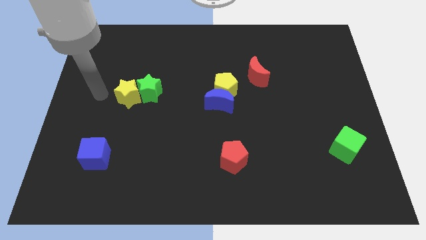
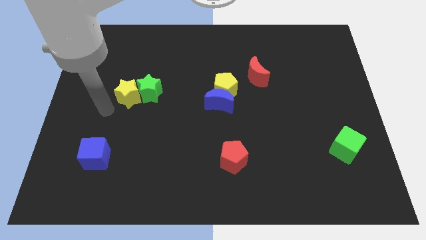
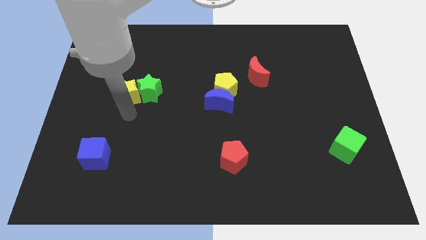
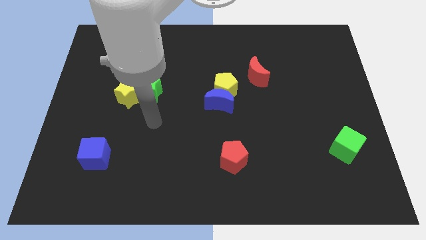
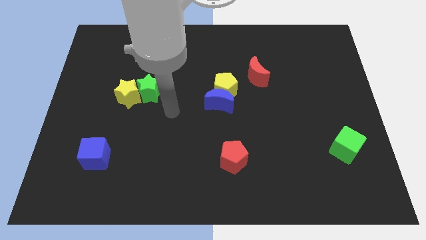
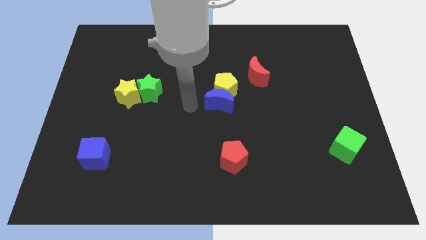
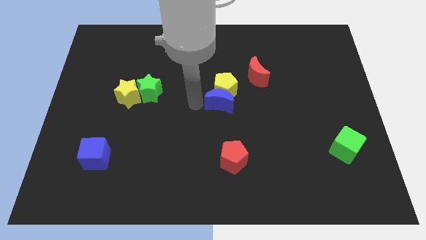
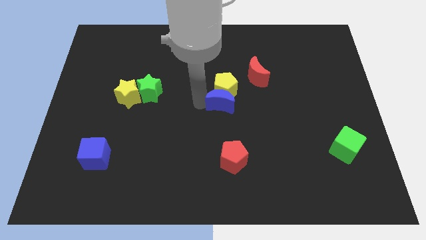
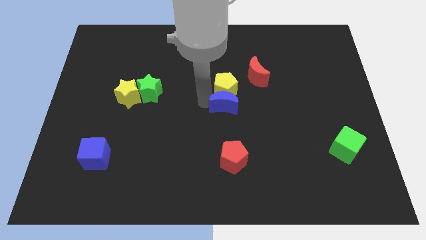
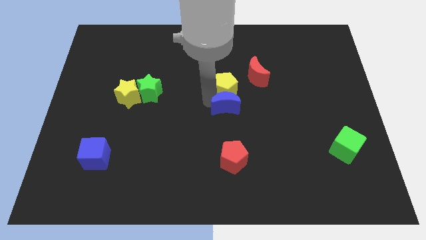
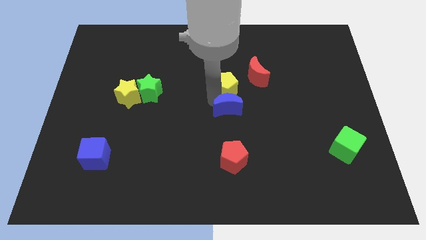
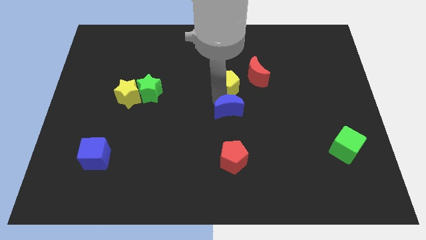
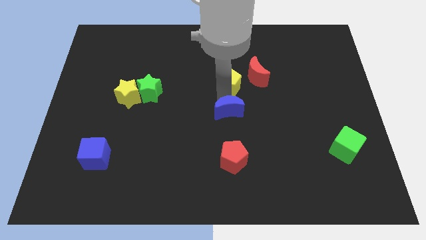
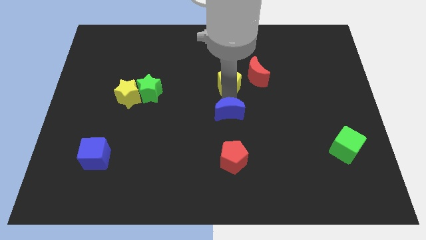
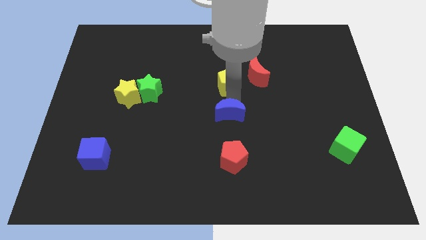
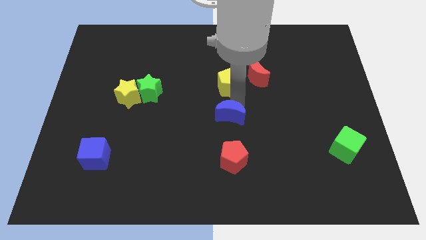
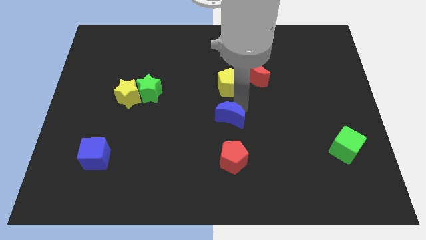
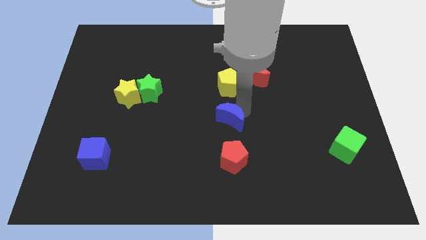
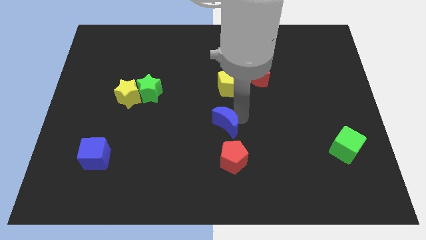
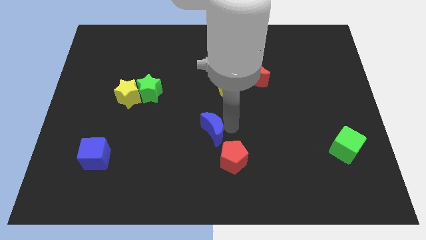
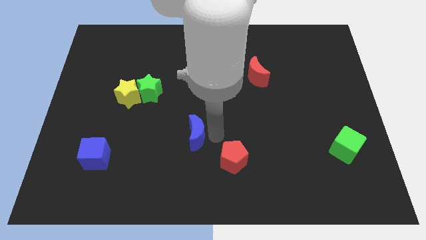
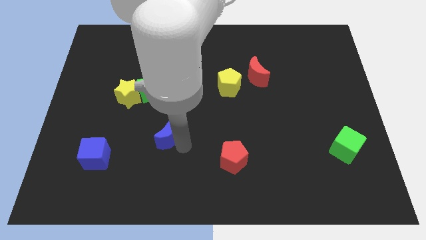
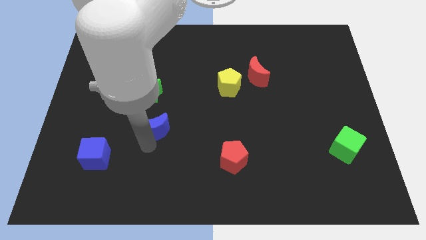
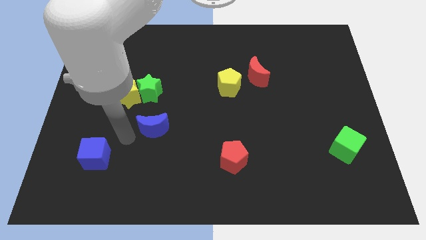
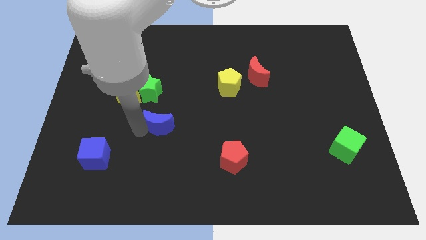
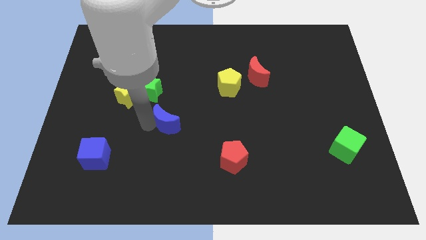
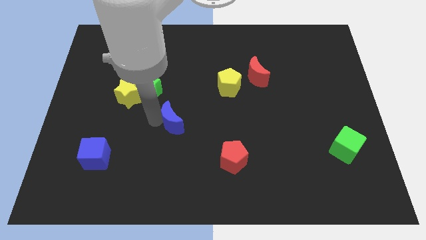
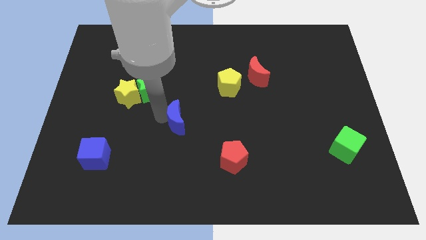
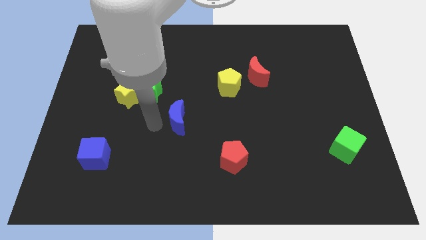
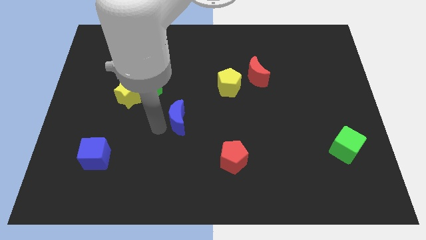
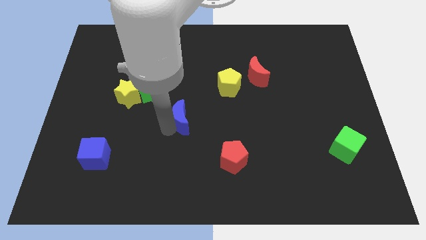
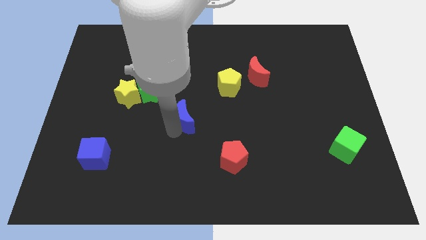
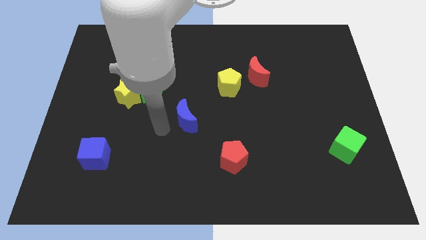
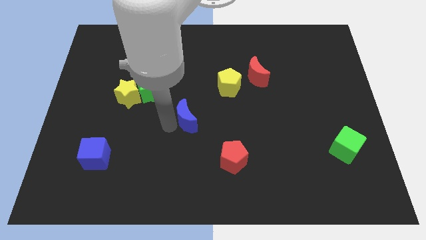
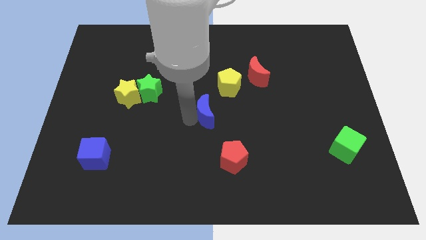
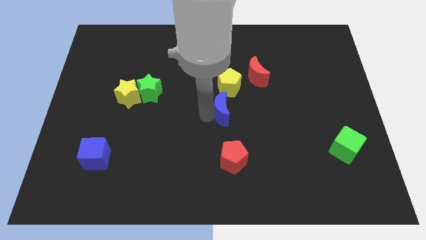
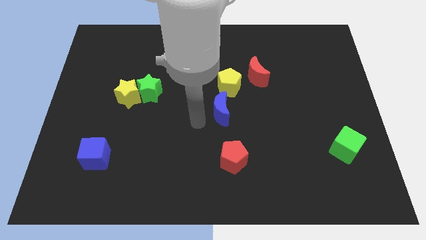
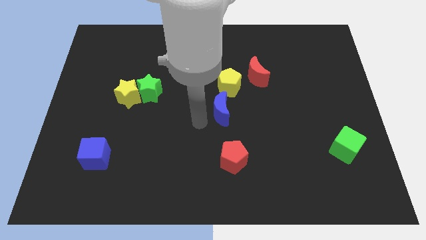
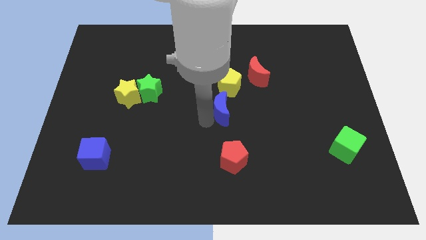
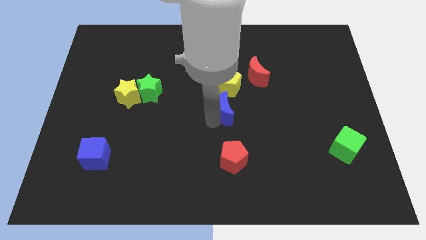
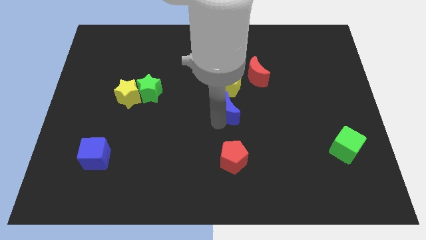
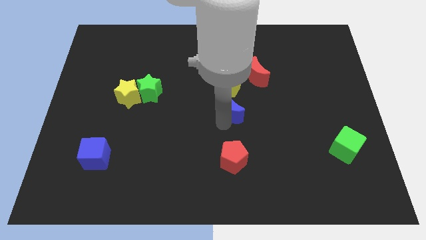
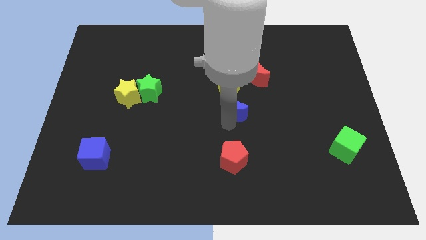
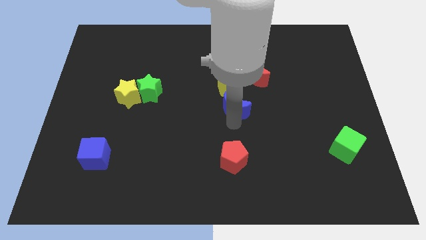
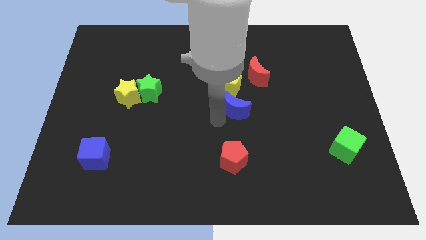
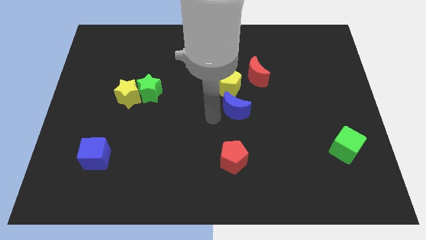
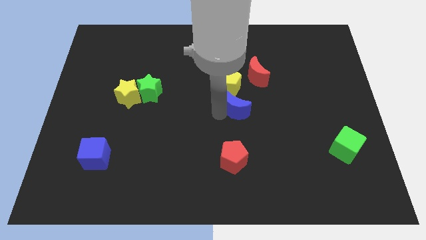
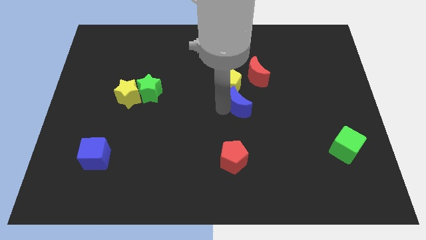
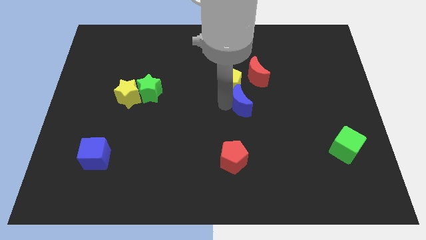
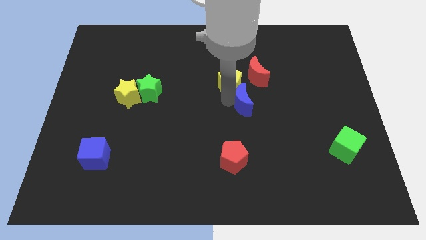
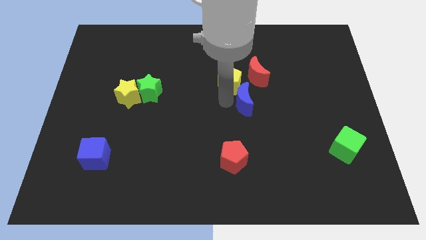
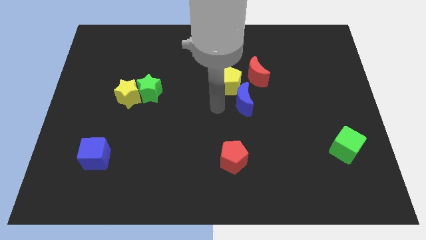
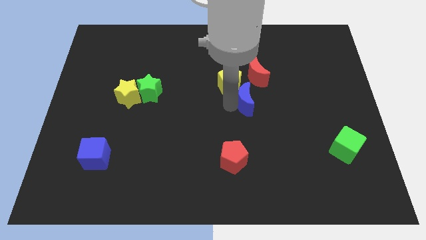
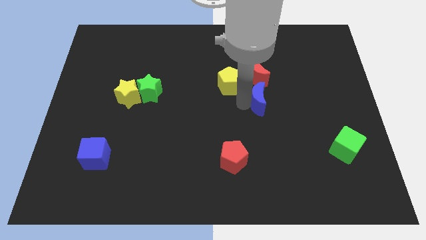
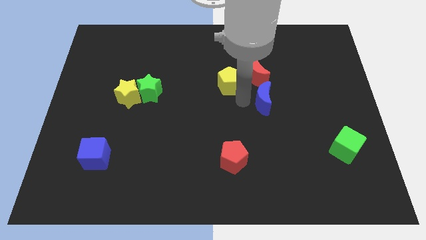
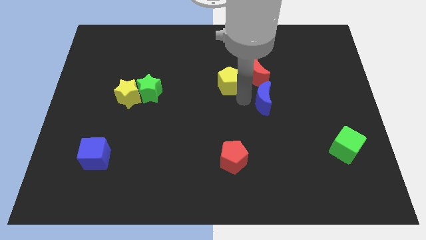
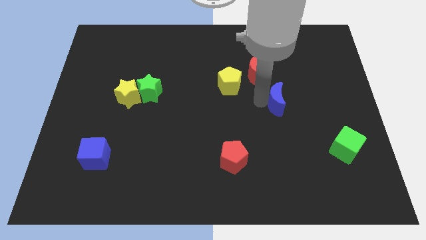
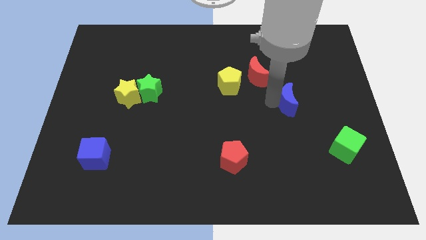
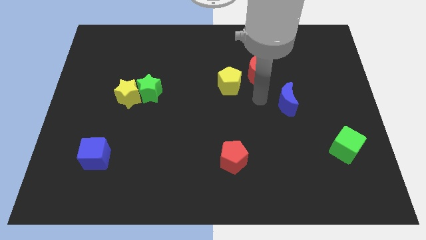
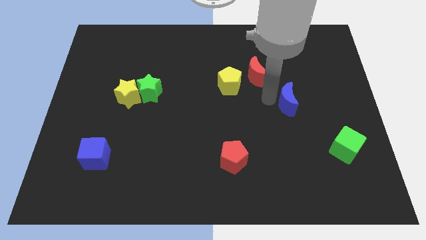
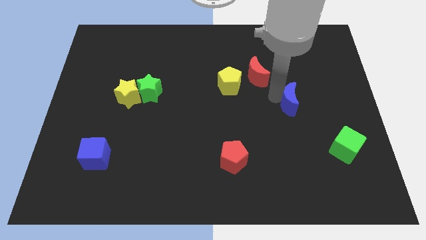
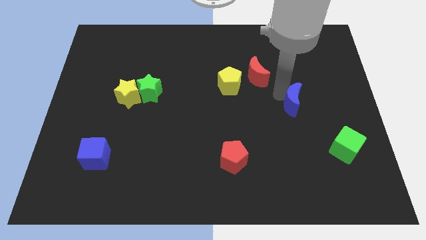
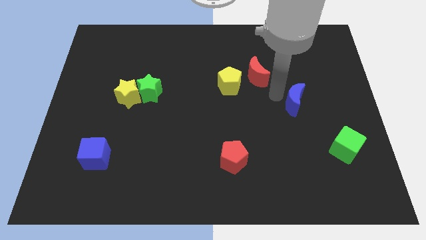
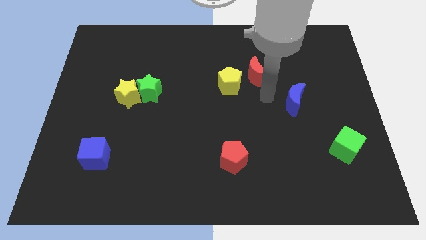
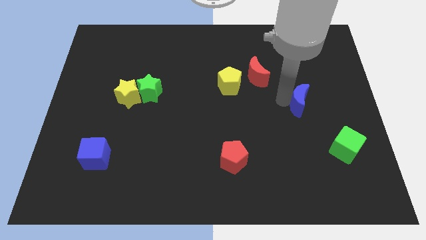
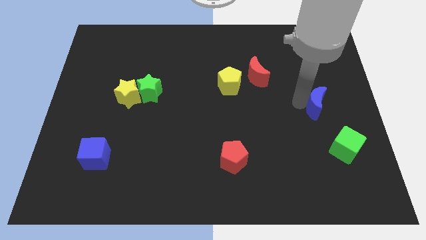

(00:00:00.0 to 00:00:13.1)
move the blue moon to the top of the green cube

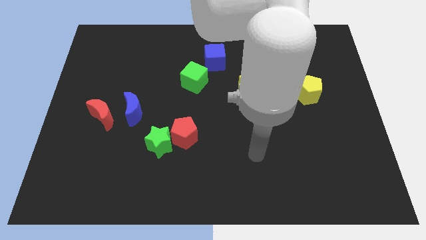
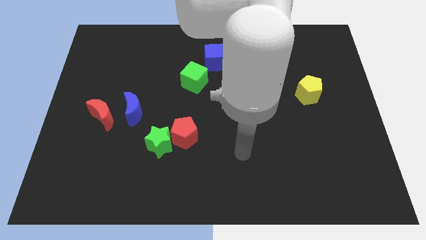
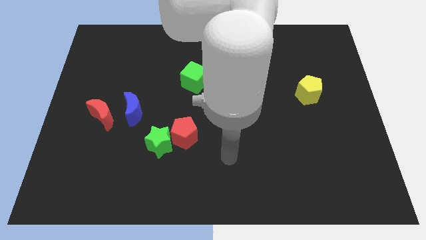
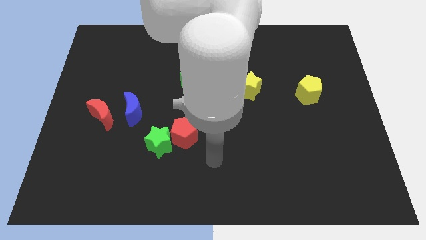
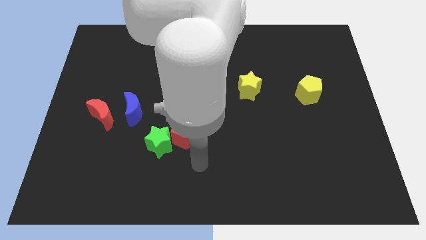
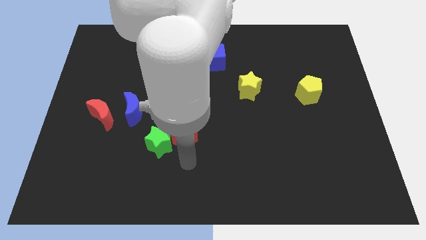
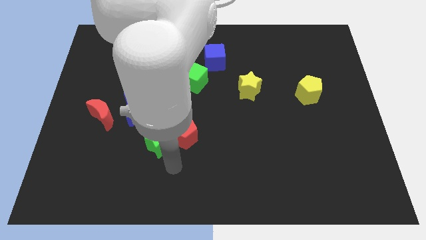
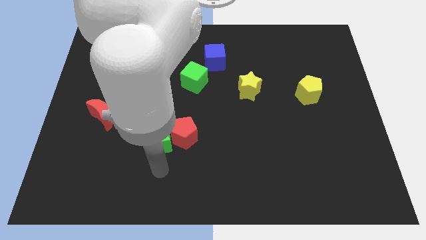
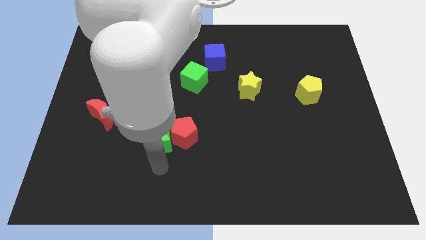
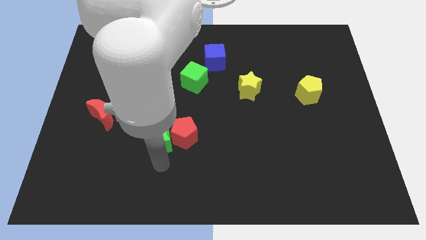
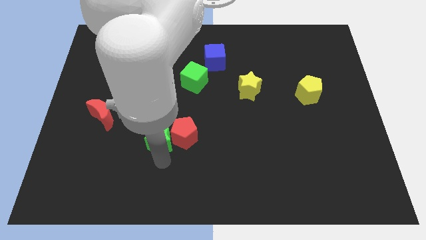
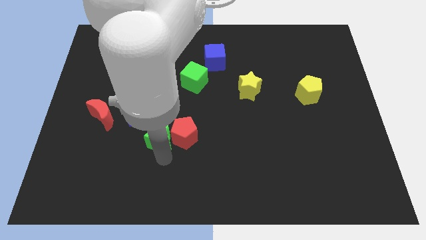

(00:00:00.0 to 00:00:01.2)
slide the green star to the top left side of the red pentagon

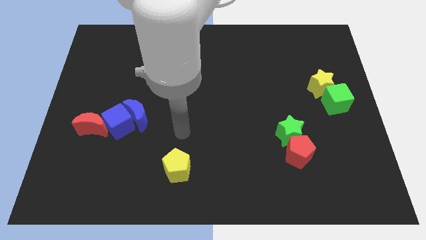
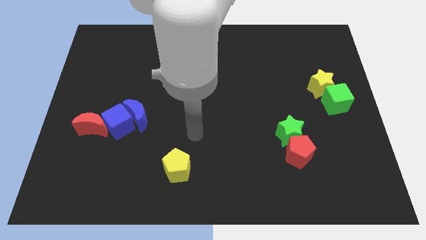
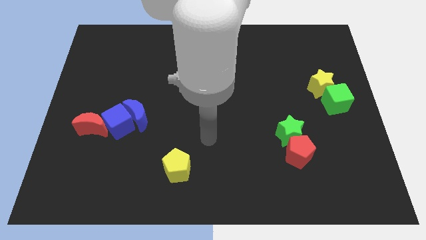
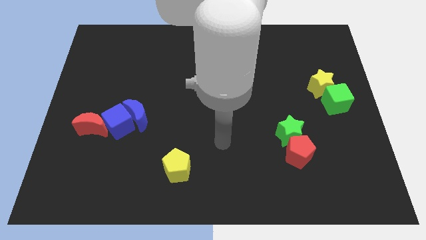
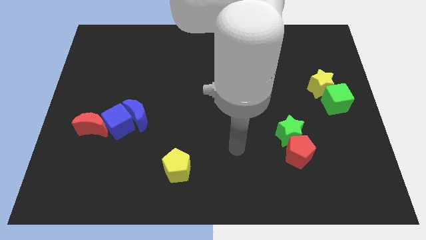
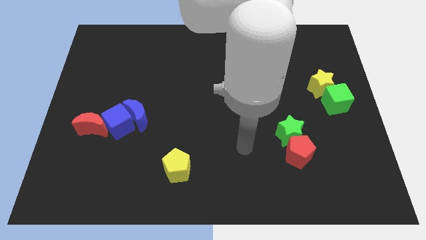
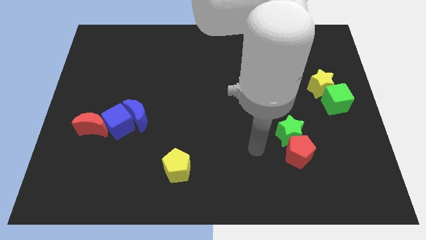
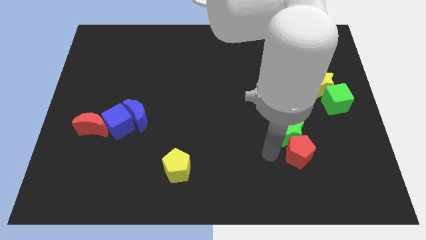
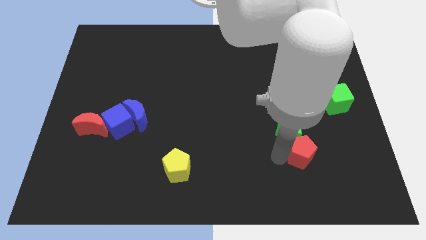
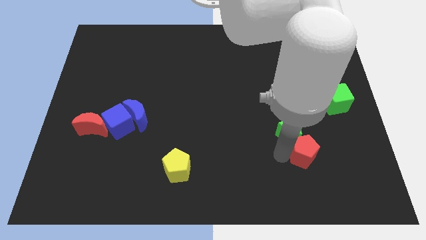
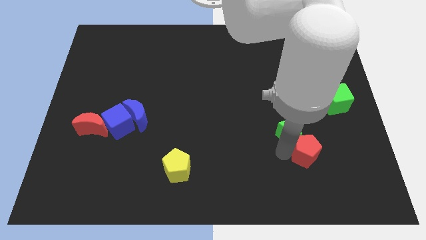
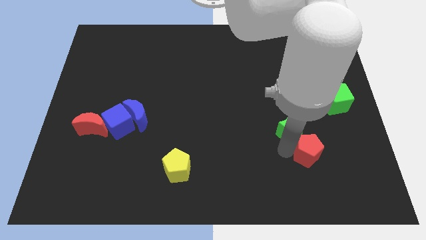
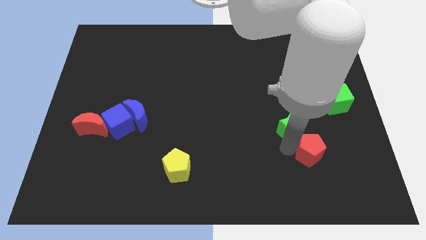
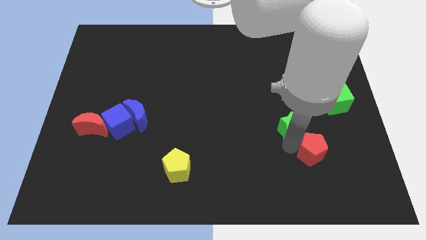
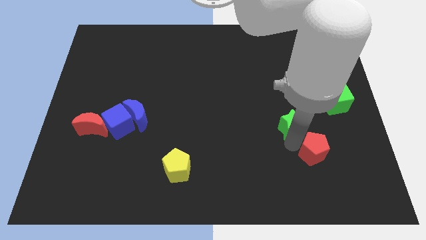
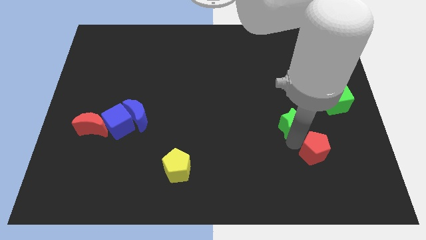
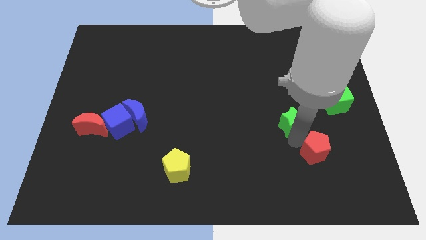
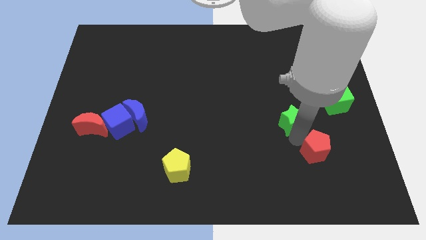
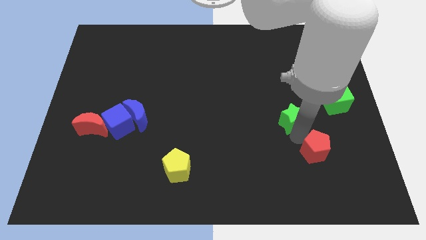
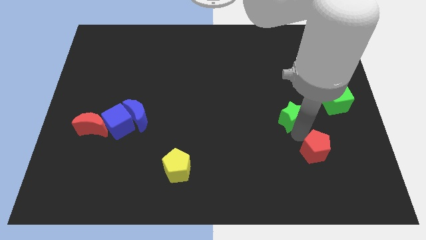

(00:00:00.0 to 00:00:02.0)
put the green star diagonally down and to the left of the yellow star
